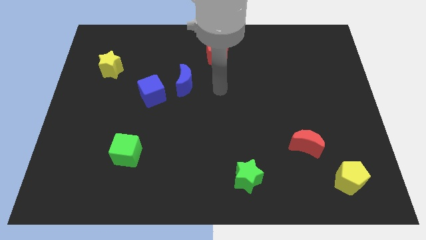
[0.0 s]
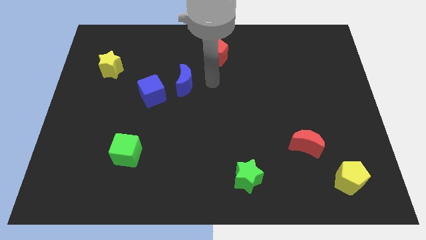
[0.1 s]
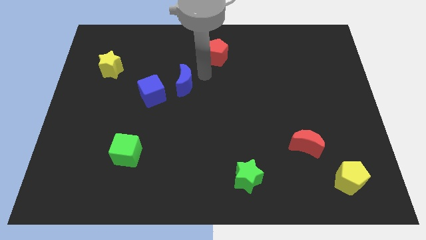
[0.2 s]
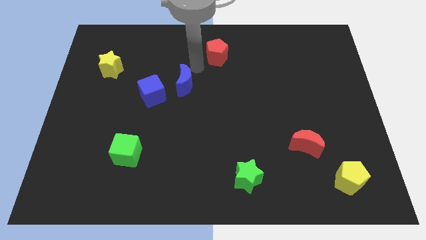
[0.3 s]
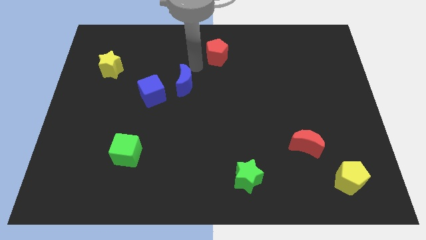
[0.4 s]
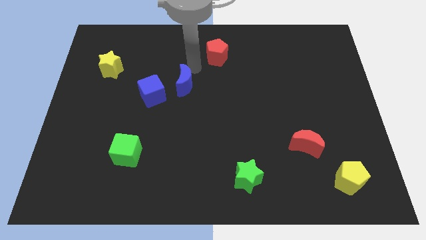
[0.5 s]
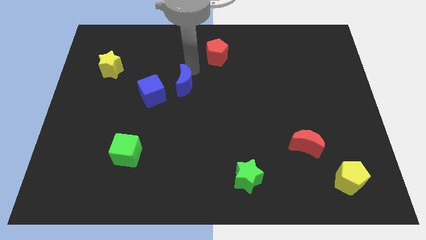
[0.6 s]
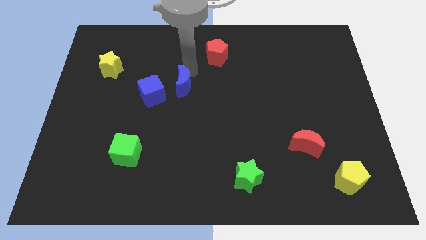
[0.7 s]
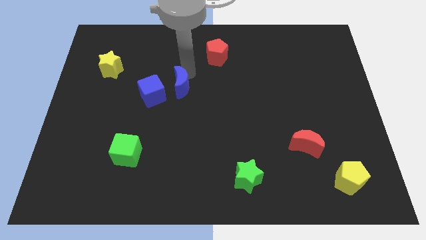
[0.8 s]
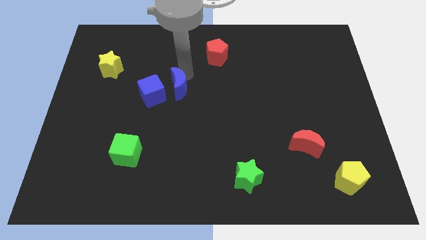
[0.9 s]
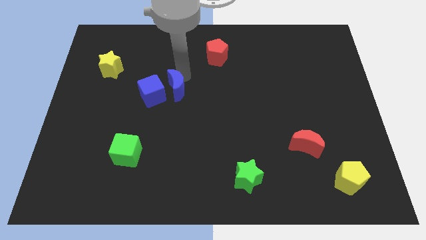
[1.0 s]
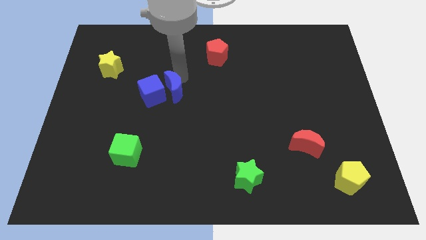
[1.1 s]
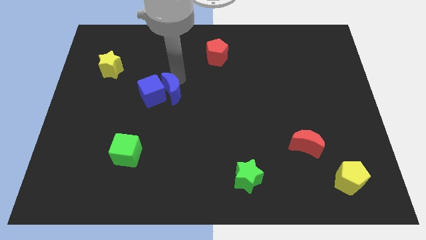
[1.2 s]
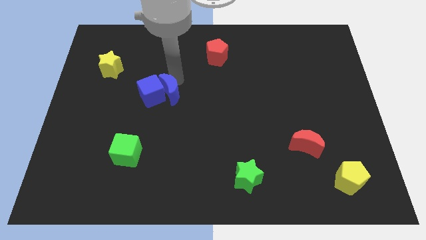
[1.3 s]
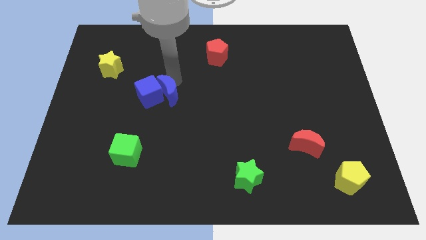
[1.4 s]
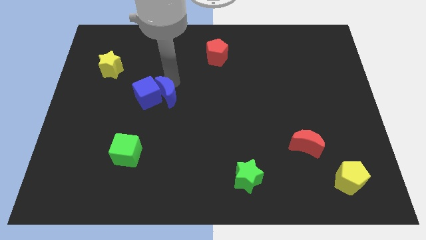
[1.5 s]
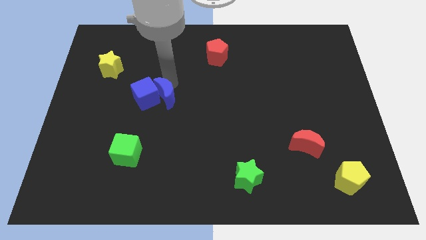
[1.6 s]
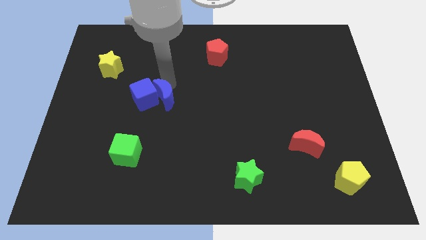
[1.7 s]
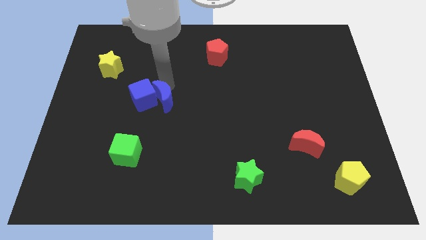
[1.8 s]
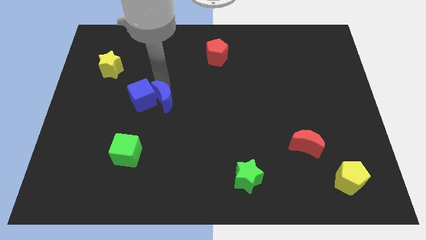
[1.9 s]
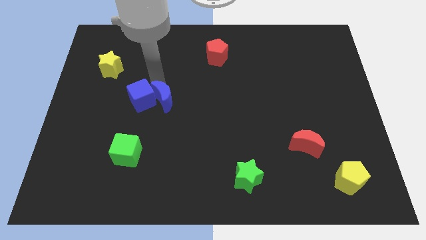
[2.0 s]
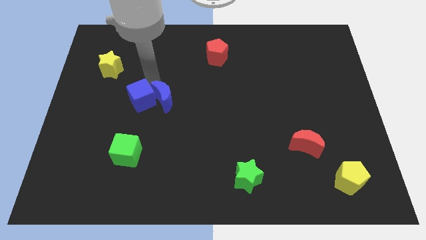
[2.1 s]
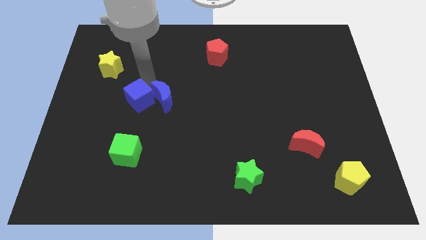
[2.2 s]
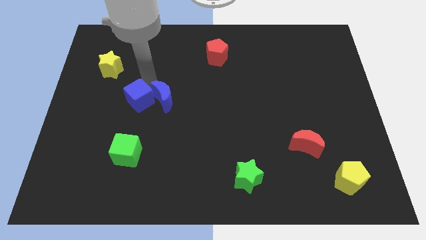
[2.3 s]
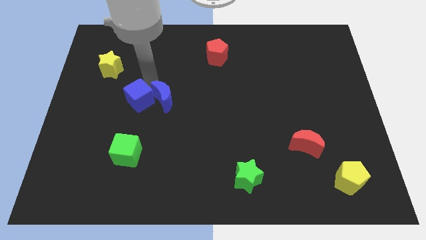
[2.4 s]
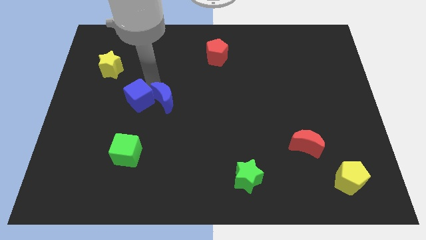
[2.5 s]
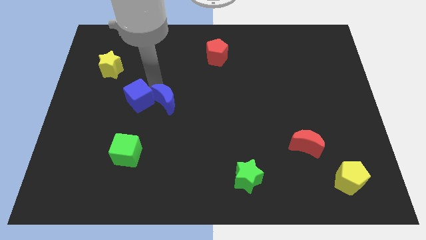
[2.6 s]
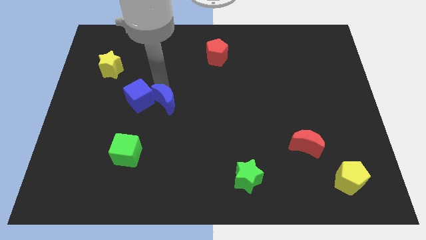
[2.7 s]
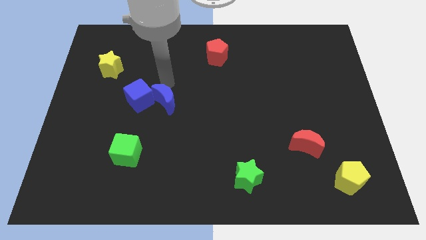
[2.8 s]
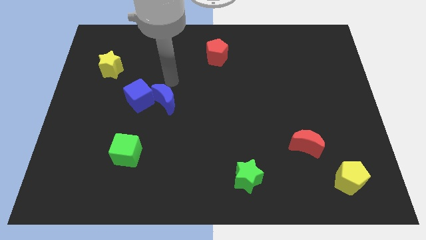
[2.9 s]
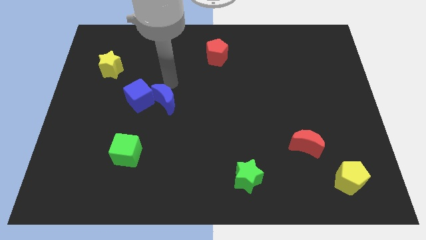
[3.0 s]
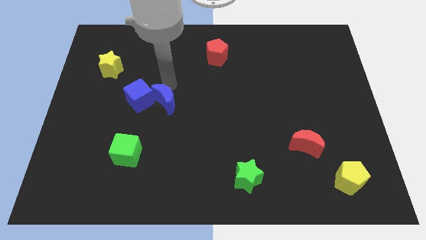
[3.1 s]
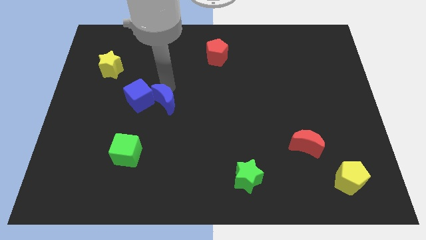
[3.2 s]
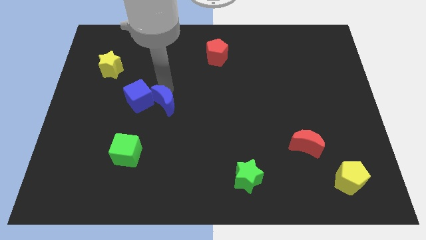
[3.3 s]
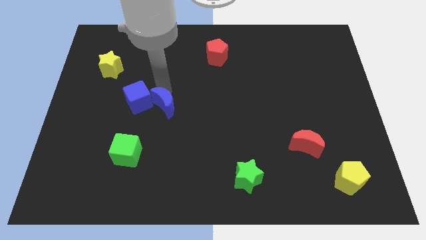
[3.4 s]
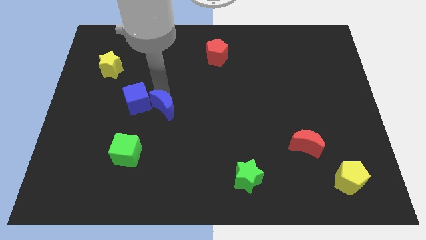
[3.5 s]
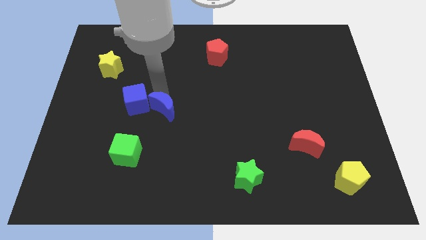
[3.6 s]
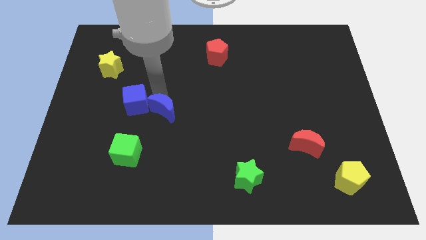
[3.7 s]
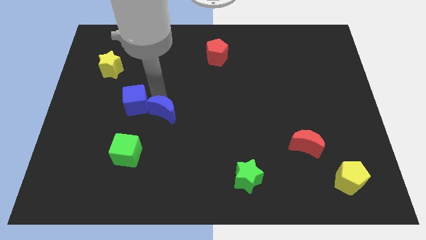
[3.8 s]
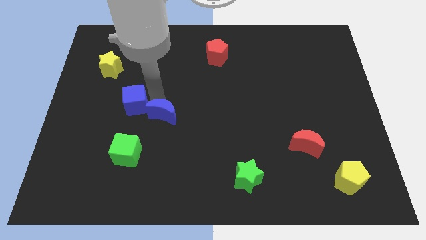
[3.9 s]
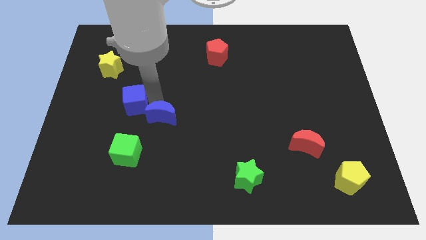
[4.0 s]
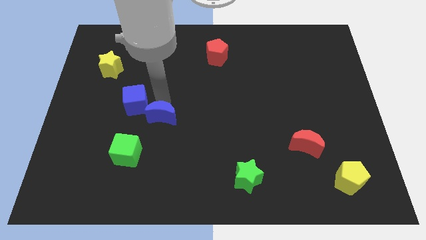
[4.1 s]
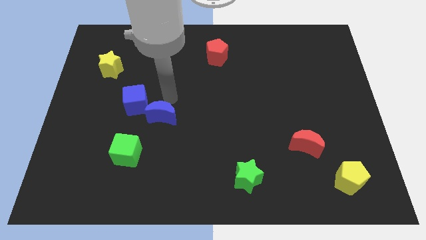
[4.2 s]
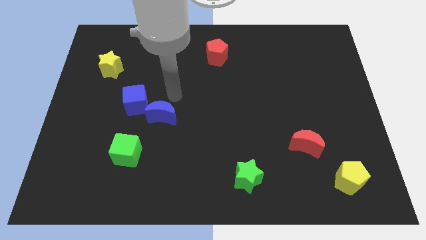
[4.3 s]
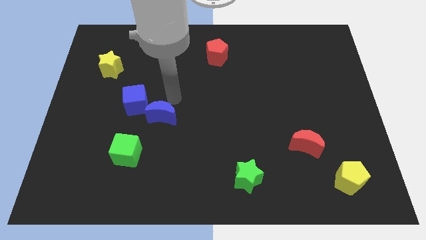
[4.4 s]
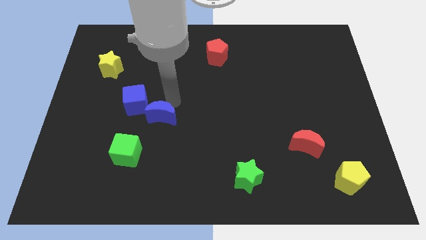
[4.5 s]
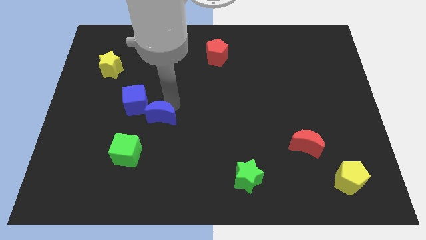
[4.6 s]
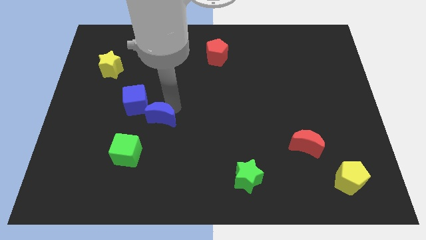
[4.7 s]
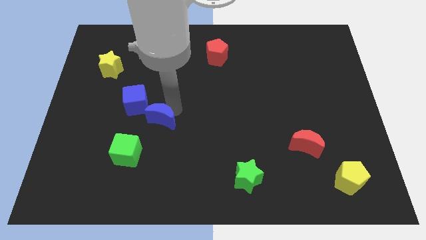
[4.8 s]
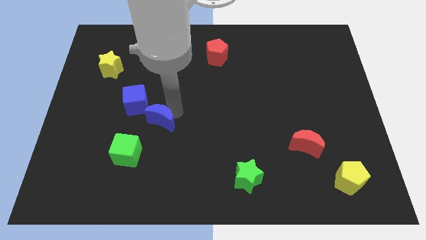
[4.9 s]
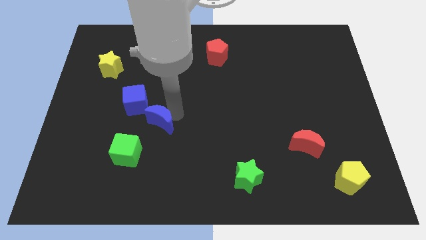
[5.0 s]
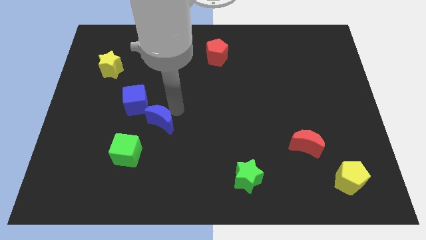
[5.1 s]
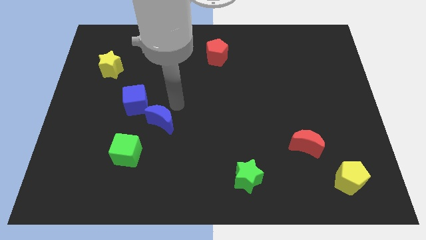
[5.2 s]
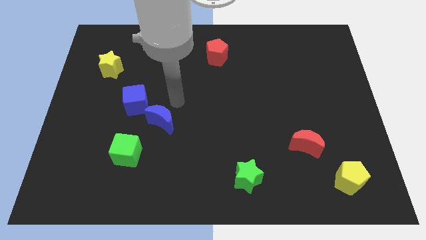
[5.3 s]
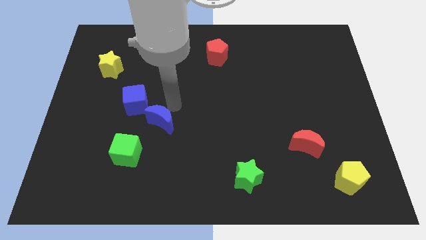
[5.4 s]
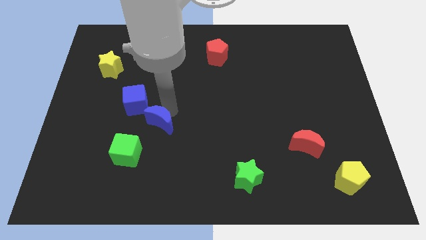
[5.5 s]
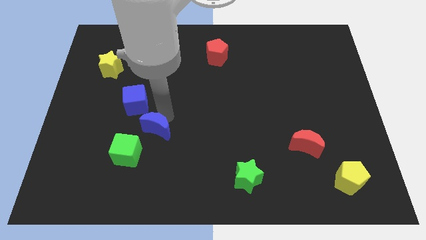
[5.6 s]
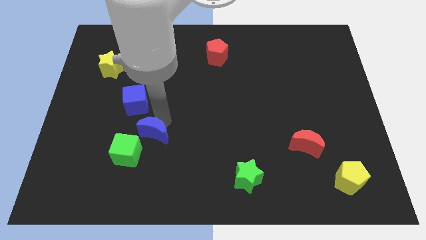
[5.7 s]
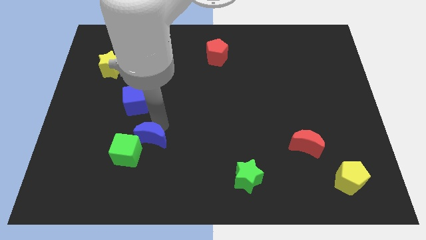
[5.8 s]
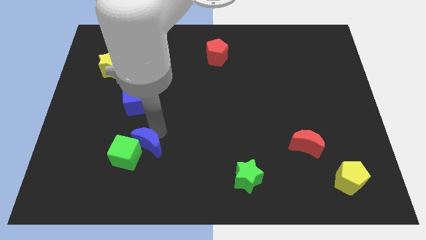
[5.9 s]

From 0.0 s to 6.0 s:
slide the blue moon close to the green cube

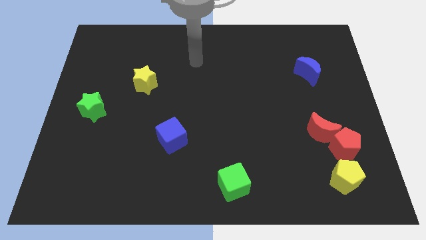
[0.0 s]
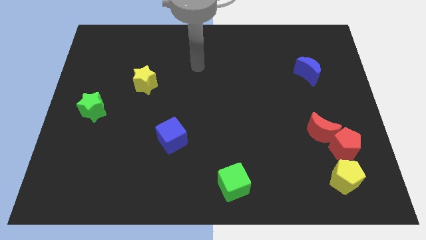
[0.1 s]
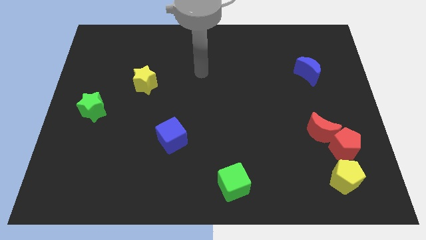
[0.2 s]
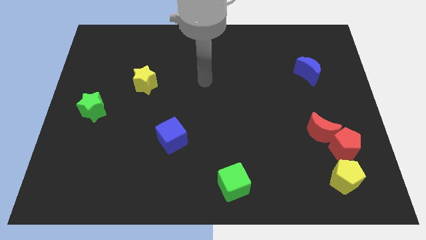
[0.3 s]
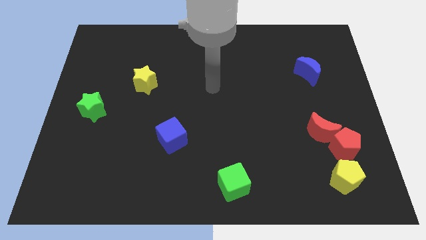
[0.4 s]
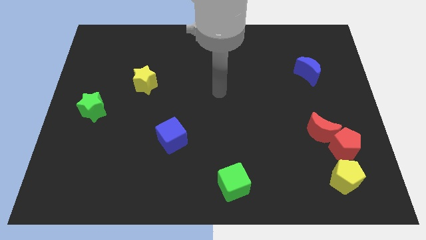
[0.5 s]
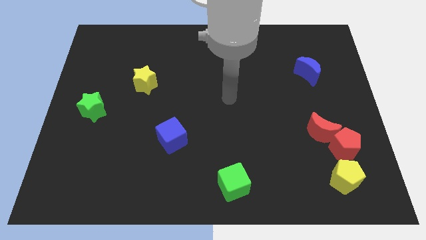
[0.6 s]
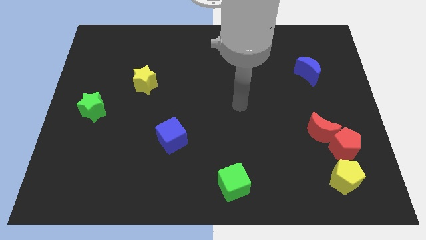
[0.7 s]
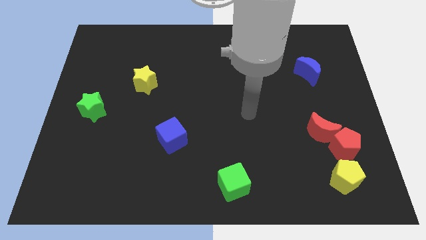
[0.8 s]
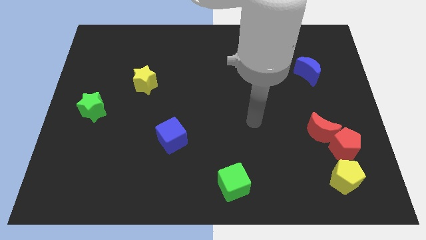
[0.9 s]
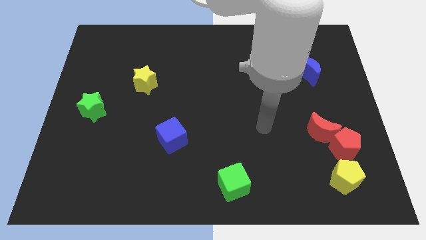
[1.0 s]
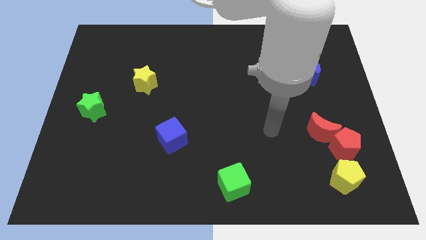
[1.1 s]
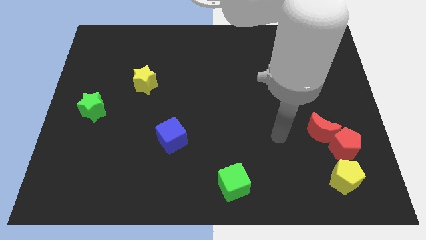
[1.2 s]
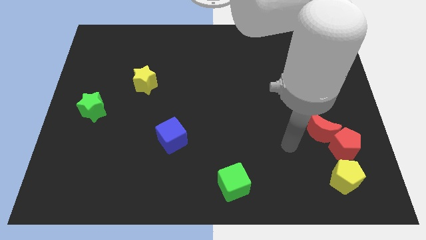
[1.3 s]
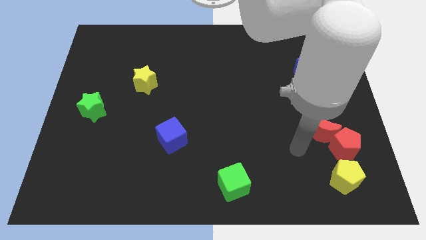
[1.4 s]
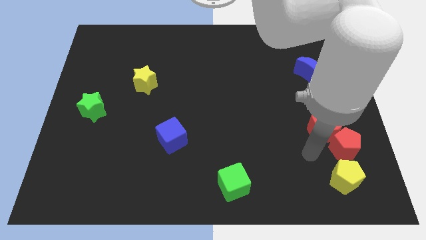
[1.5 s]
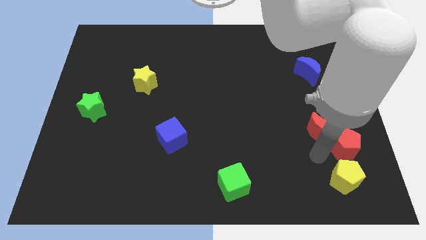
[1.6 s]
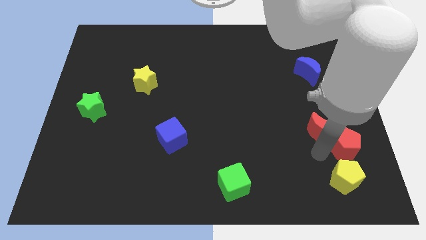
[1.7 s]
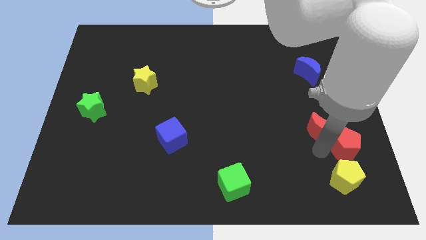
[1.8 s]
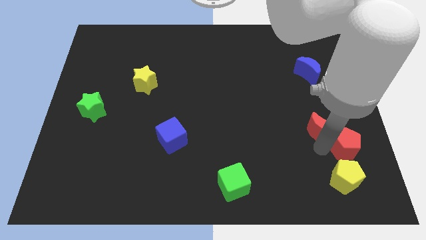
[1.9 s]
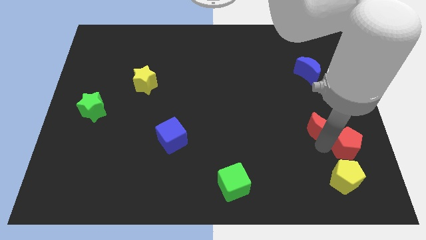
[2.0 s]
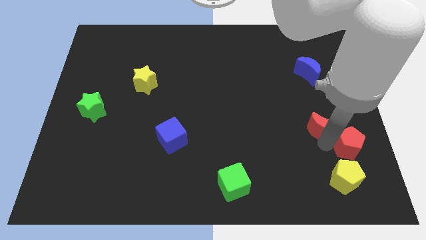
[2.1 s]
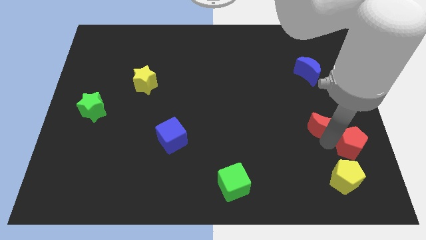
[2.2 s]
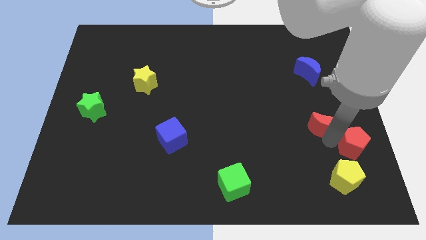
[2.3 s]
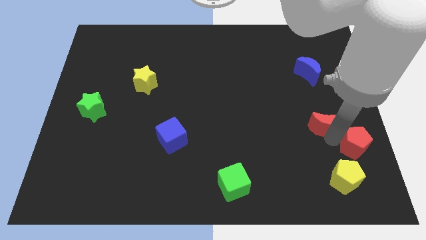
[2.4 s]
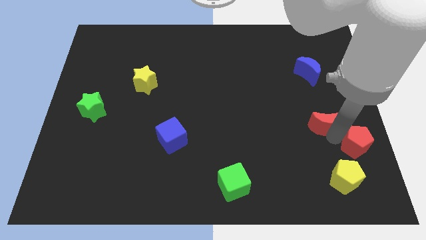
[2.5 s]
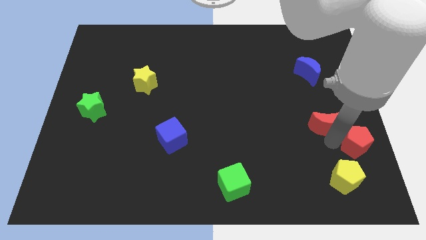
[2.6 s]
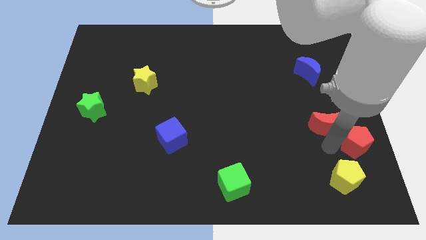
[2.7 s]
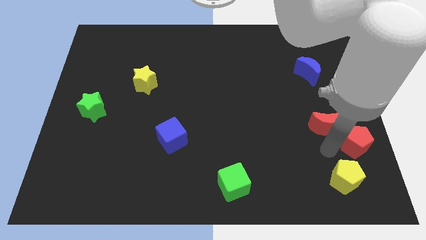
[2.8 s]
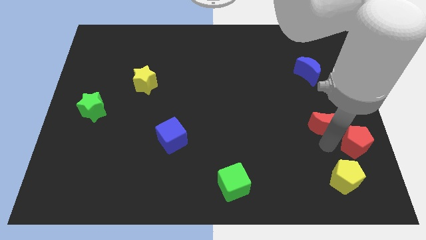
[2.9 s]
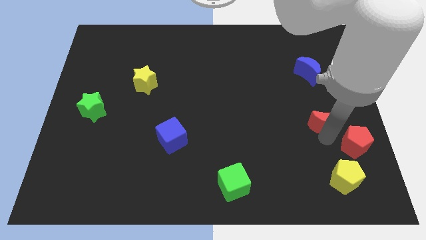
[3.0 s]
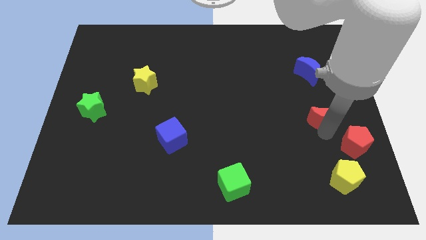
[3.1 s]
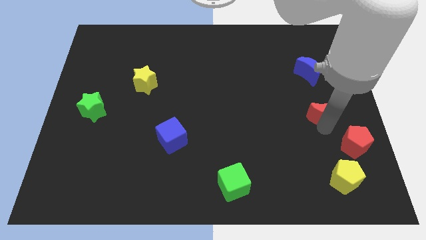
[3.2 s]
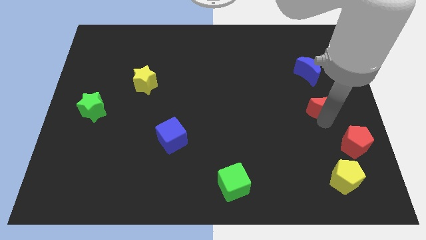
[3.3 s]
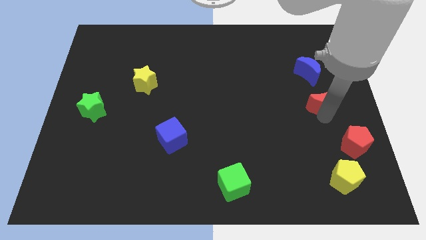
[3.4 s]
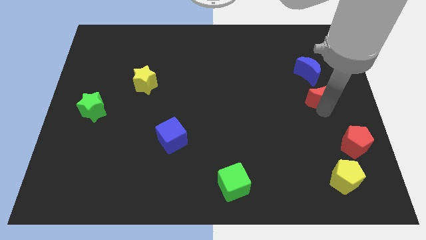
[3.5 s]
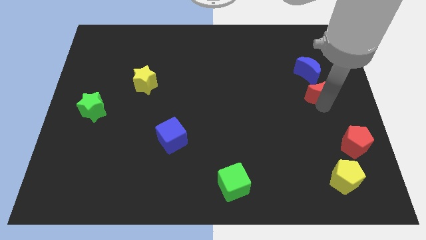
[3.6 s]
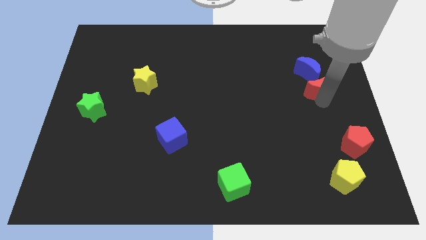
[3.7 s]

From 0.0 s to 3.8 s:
move the red moon to the blue moon
